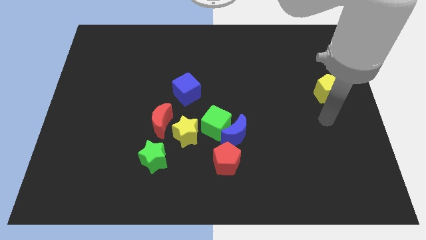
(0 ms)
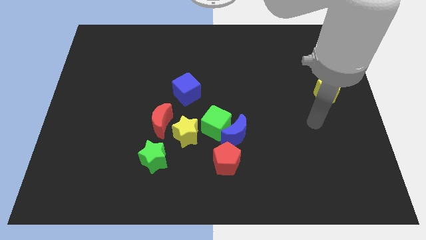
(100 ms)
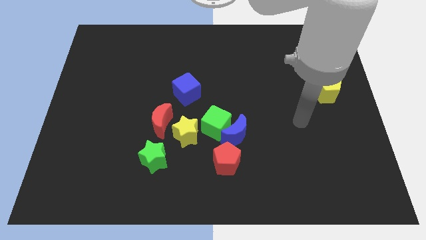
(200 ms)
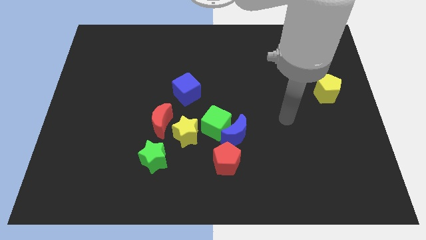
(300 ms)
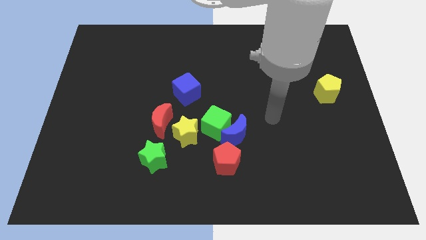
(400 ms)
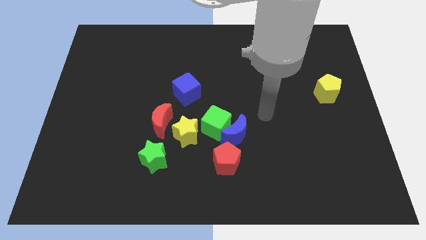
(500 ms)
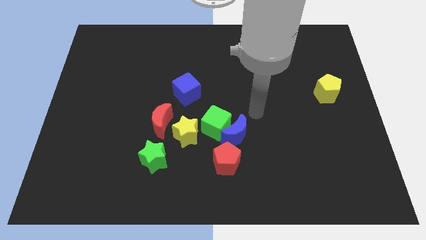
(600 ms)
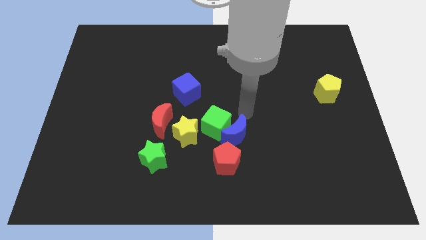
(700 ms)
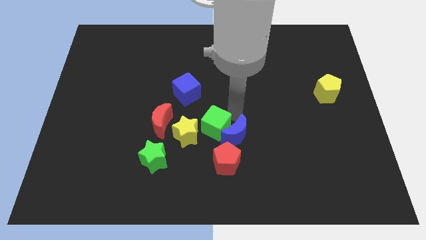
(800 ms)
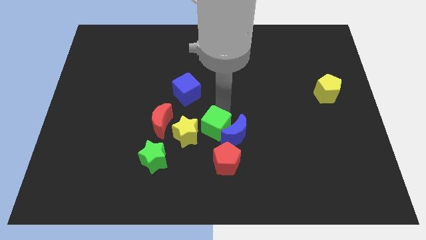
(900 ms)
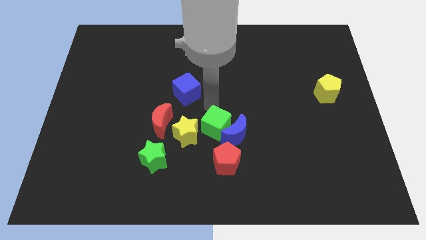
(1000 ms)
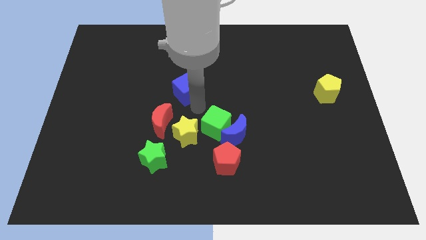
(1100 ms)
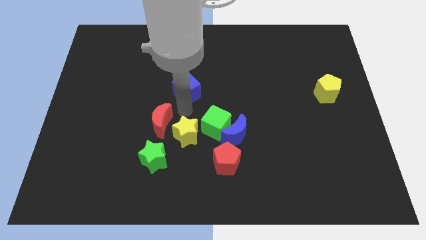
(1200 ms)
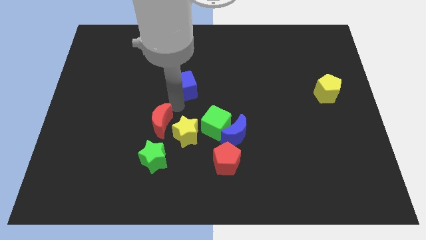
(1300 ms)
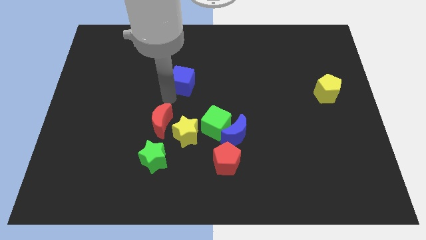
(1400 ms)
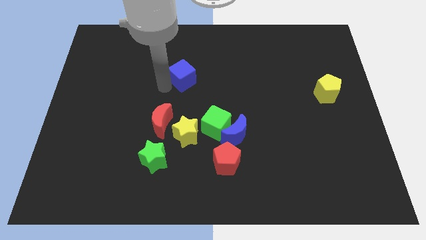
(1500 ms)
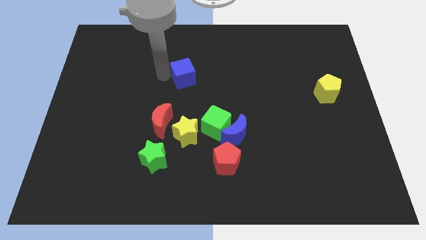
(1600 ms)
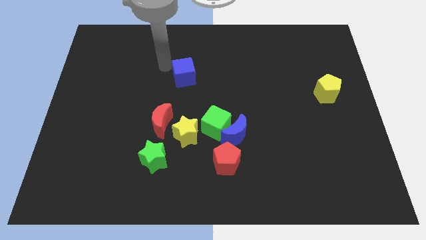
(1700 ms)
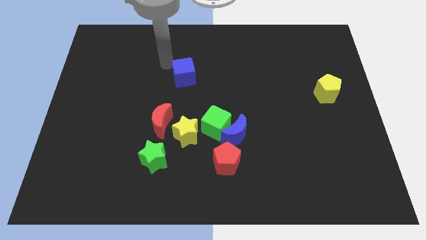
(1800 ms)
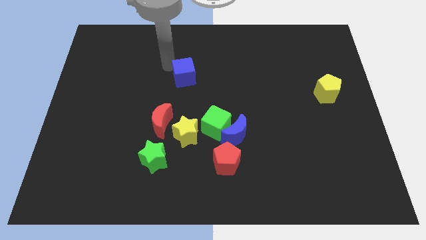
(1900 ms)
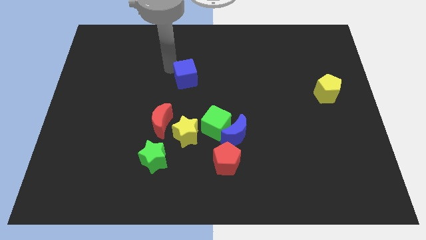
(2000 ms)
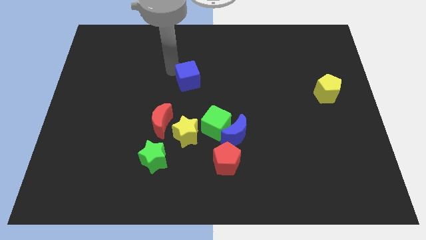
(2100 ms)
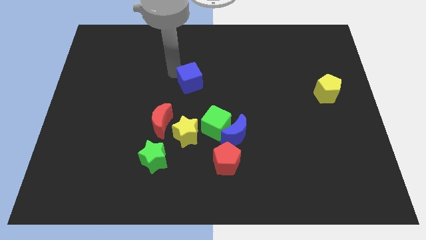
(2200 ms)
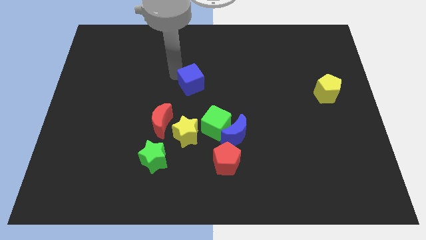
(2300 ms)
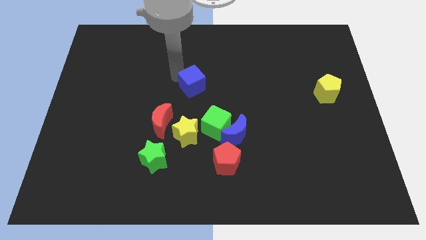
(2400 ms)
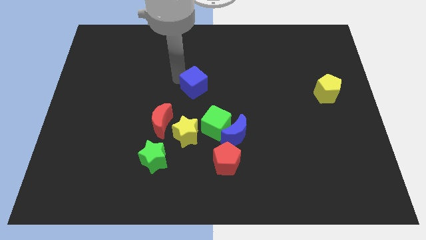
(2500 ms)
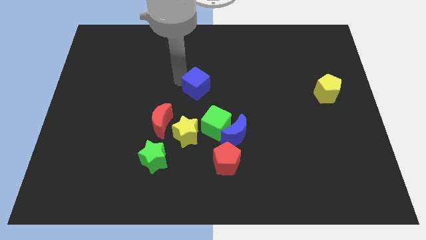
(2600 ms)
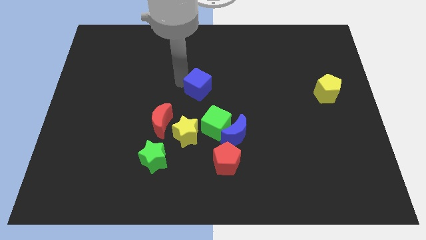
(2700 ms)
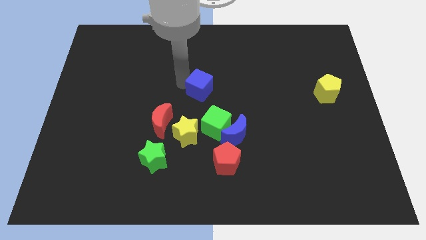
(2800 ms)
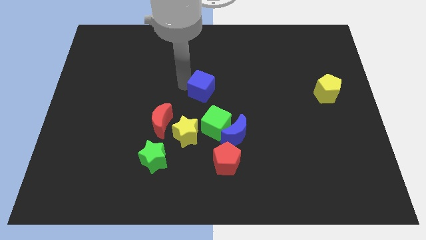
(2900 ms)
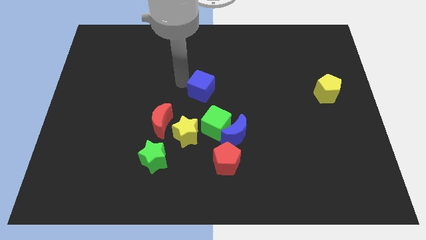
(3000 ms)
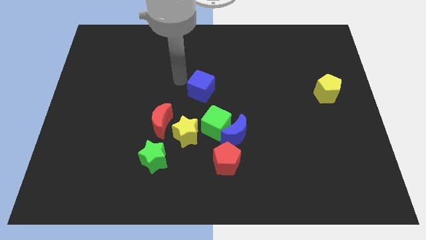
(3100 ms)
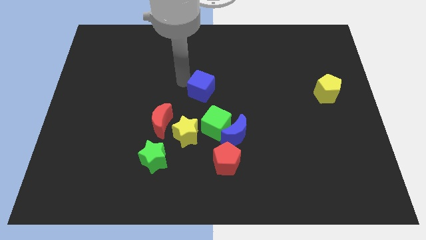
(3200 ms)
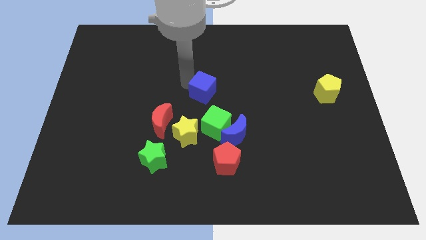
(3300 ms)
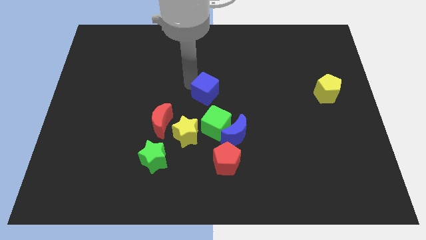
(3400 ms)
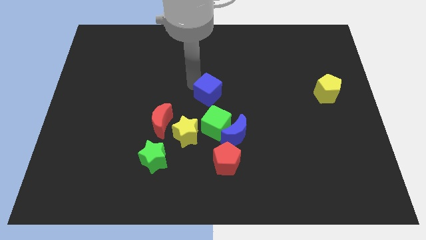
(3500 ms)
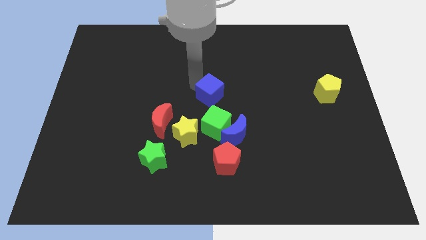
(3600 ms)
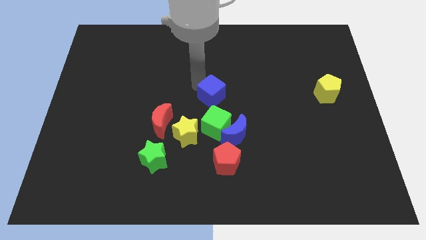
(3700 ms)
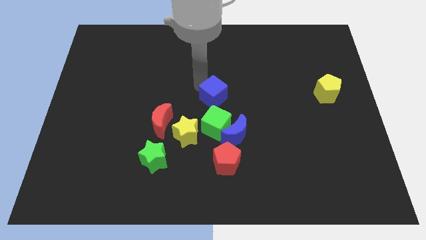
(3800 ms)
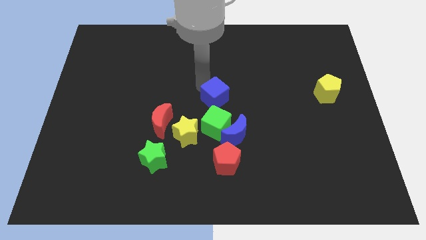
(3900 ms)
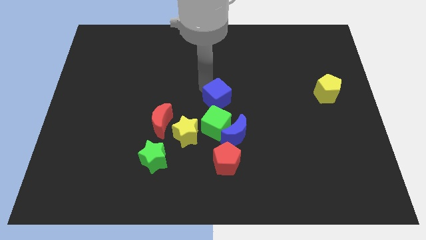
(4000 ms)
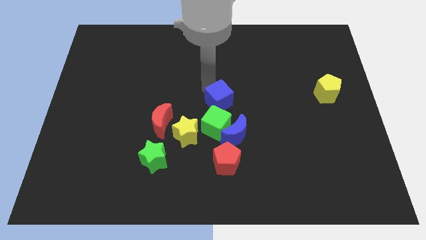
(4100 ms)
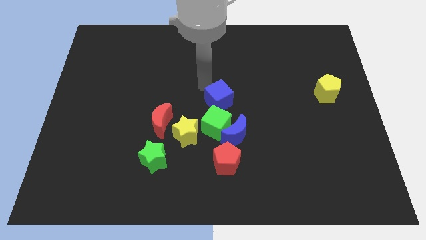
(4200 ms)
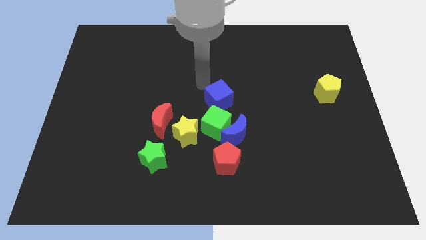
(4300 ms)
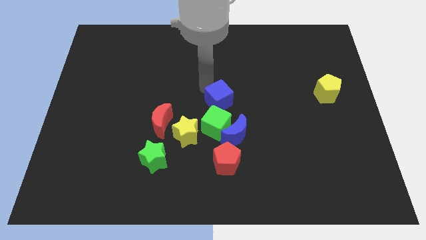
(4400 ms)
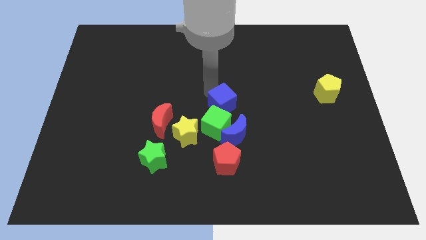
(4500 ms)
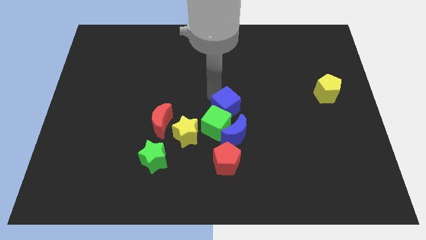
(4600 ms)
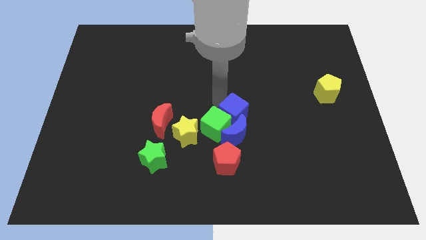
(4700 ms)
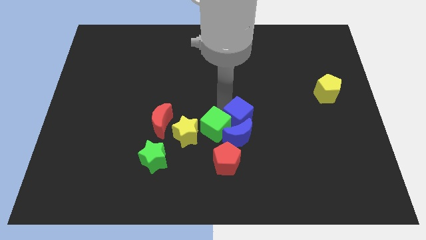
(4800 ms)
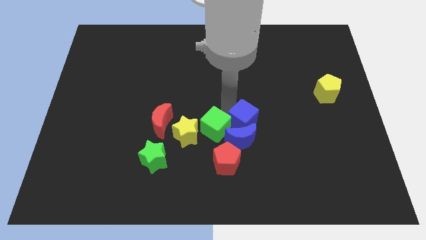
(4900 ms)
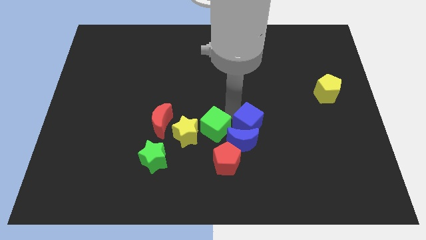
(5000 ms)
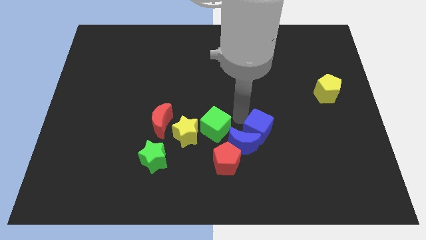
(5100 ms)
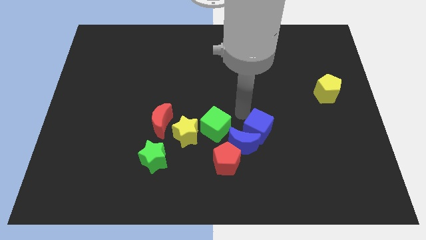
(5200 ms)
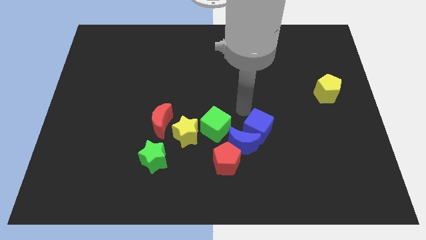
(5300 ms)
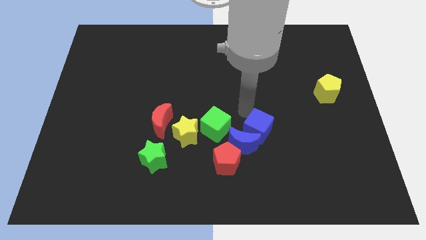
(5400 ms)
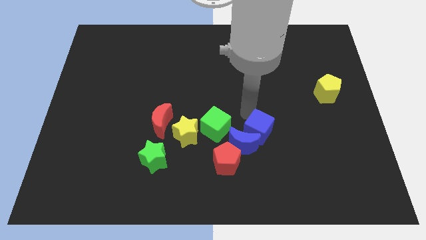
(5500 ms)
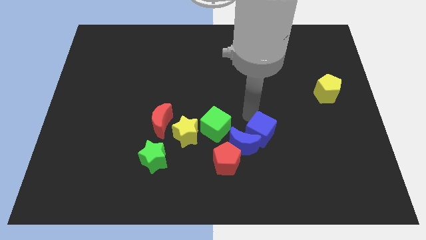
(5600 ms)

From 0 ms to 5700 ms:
slide the blue cube down and to the right

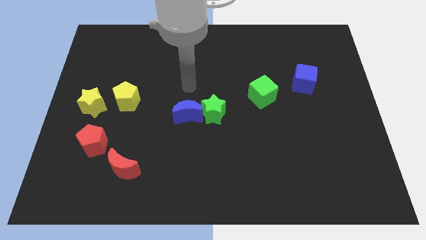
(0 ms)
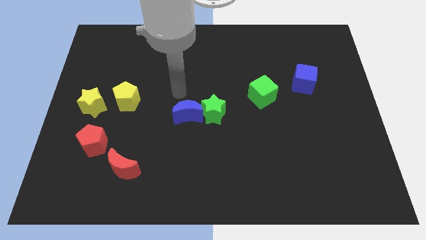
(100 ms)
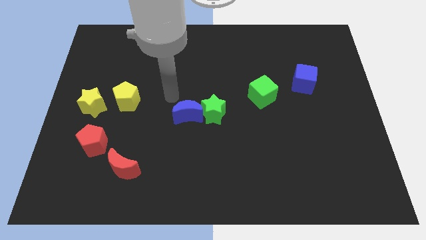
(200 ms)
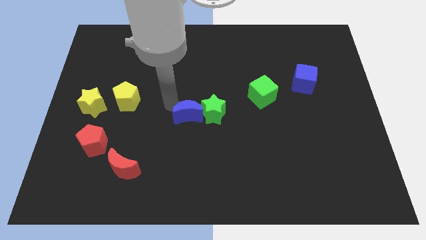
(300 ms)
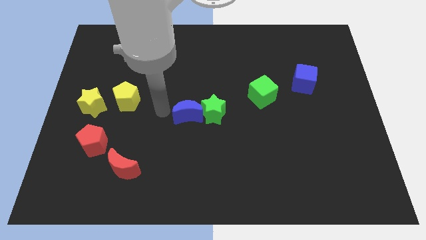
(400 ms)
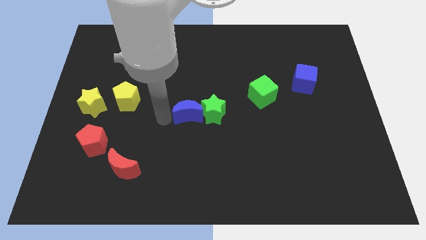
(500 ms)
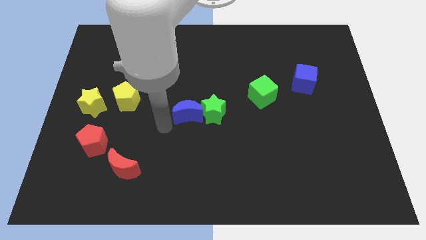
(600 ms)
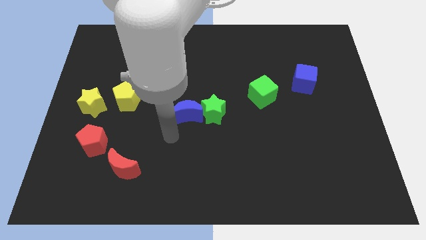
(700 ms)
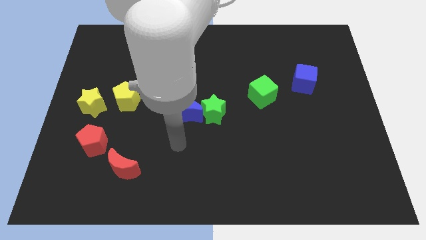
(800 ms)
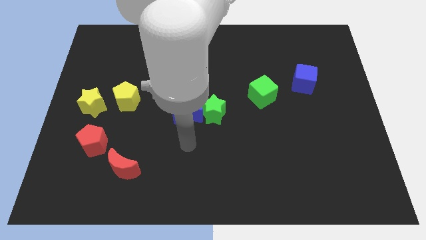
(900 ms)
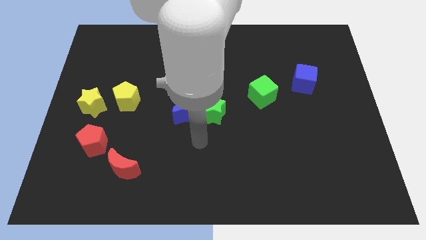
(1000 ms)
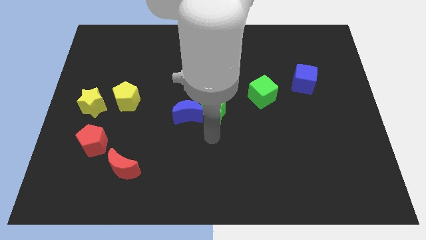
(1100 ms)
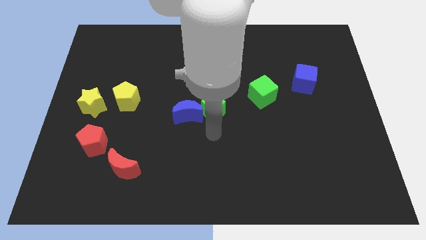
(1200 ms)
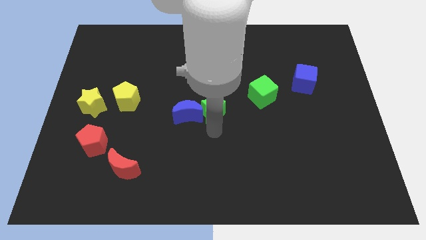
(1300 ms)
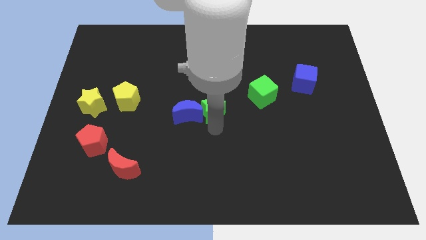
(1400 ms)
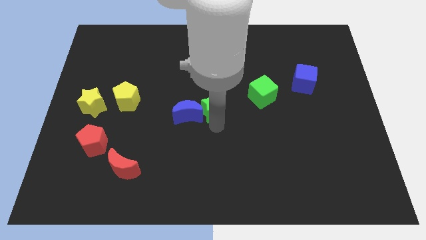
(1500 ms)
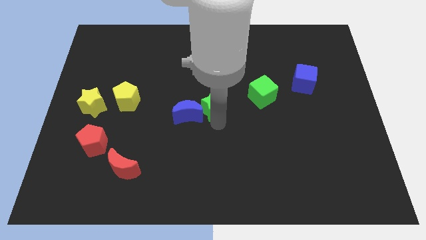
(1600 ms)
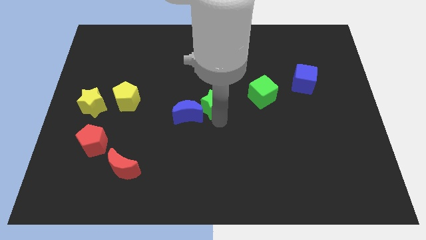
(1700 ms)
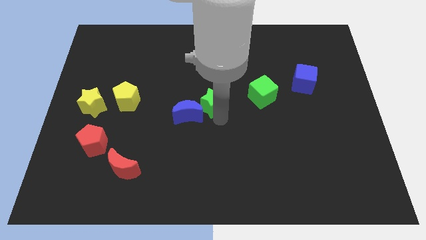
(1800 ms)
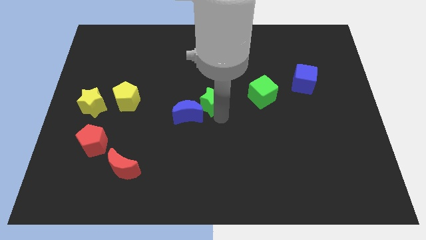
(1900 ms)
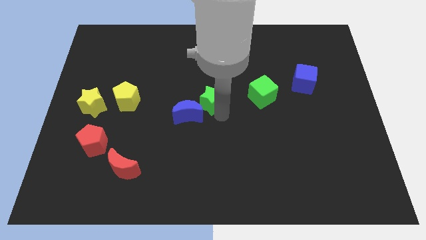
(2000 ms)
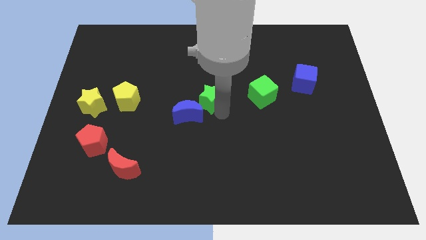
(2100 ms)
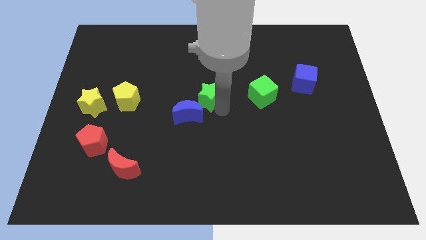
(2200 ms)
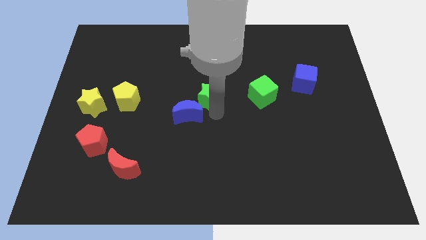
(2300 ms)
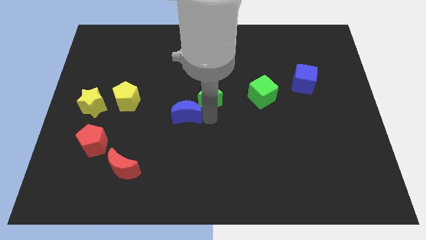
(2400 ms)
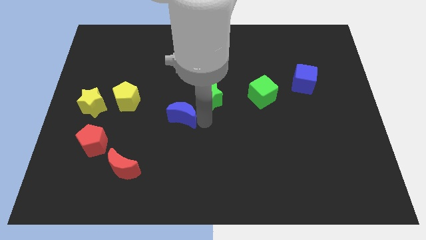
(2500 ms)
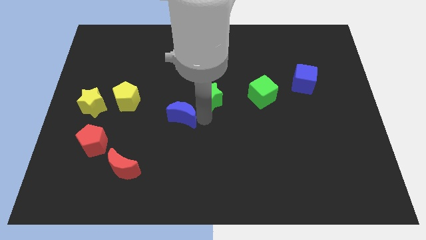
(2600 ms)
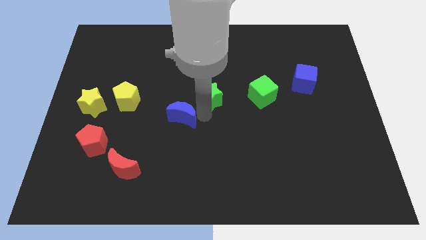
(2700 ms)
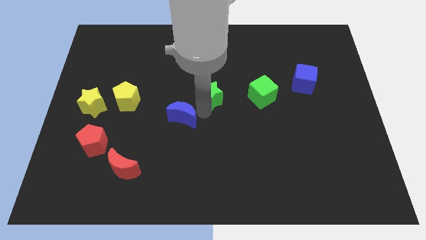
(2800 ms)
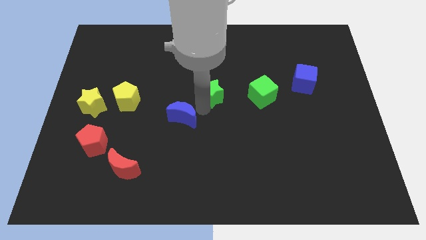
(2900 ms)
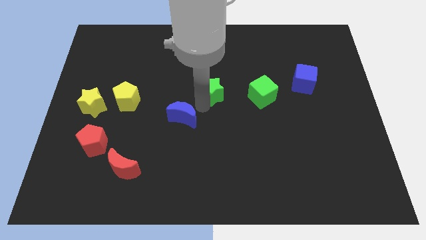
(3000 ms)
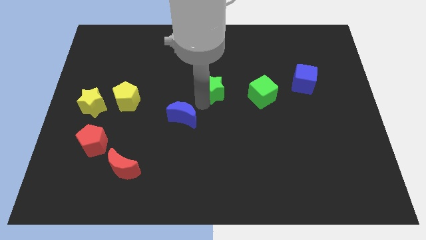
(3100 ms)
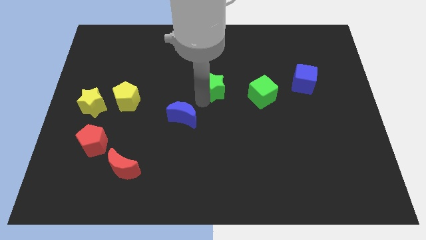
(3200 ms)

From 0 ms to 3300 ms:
move the green star up a bit
